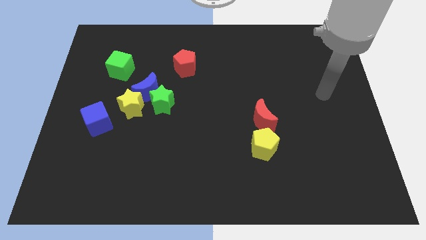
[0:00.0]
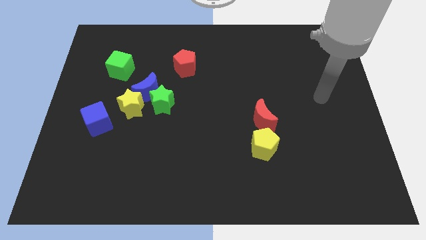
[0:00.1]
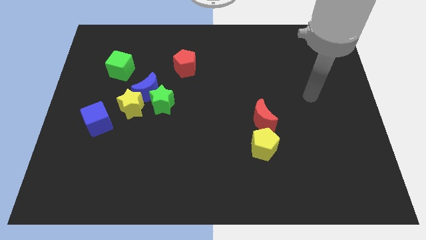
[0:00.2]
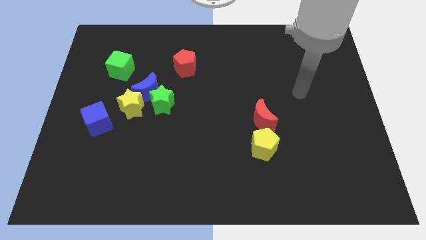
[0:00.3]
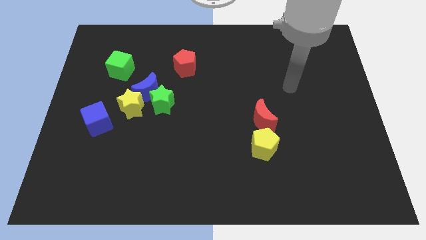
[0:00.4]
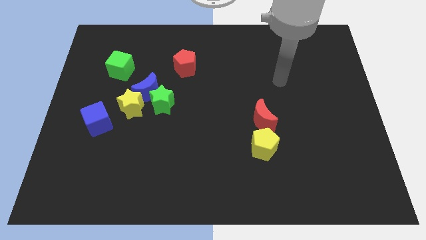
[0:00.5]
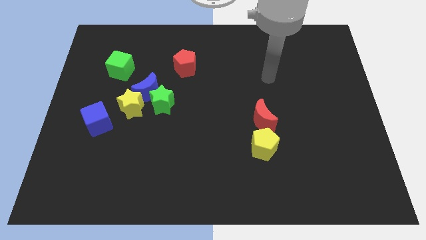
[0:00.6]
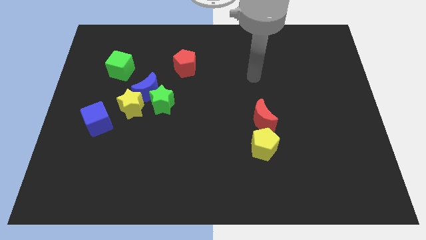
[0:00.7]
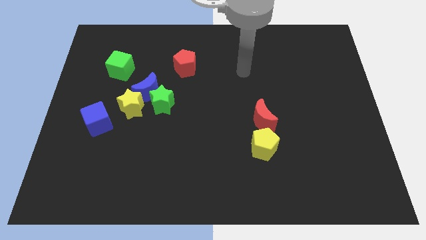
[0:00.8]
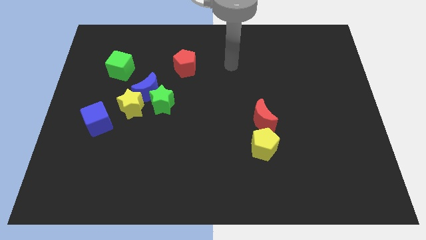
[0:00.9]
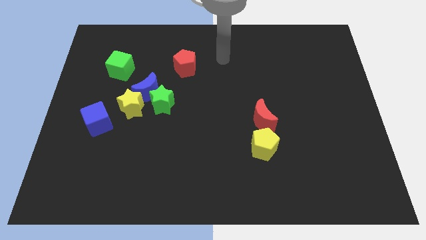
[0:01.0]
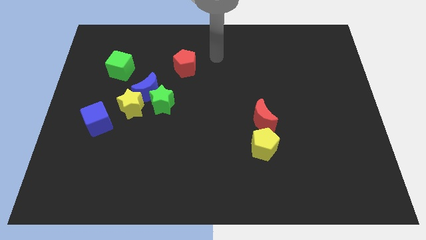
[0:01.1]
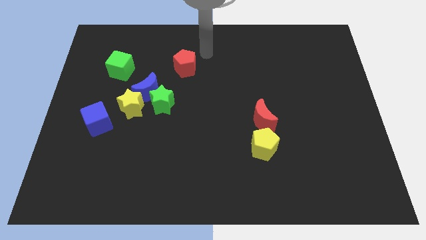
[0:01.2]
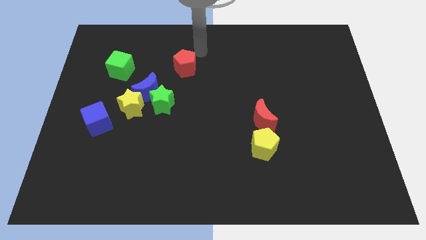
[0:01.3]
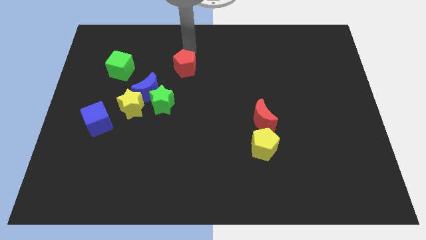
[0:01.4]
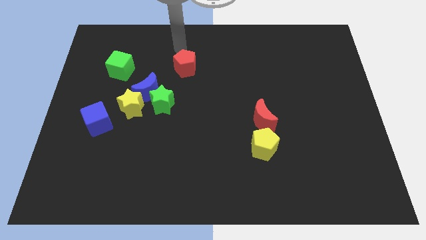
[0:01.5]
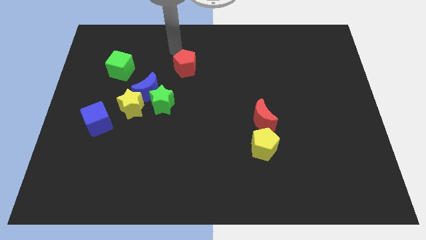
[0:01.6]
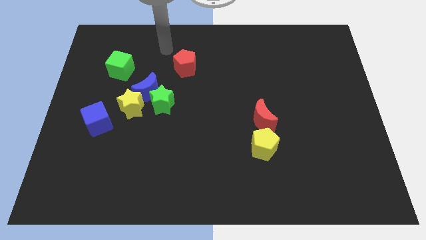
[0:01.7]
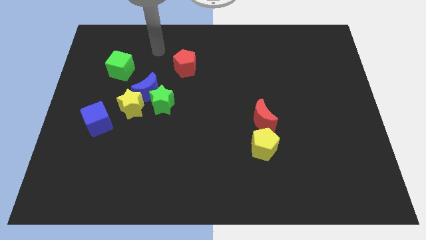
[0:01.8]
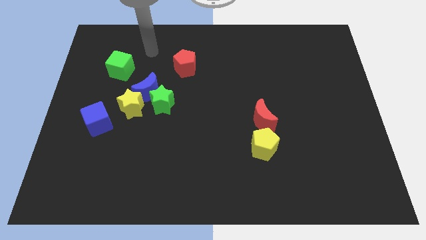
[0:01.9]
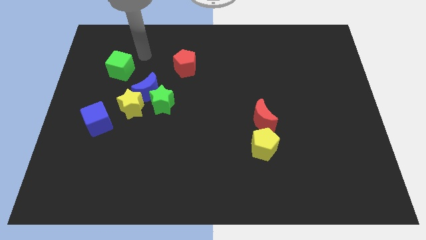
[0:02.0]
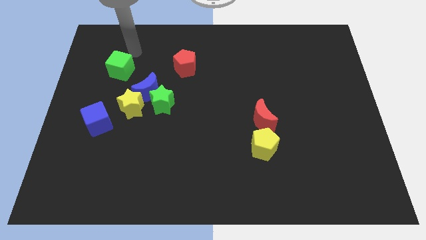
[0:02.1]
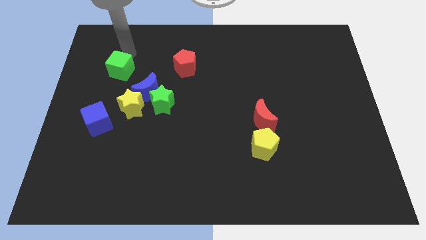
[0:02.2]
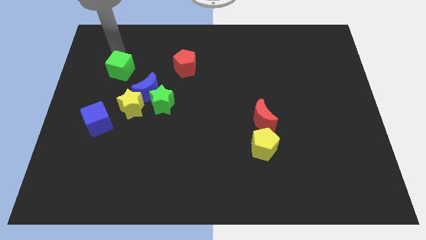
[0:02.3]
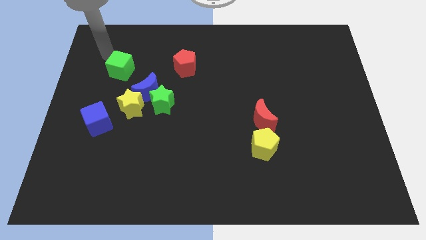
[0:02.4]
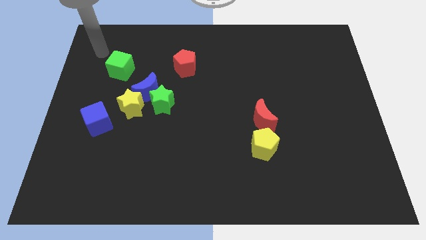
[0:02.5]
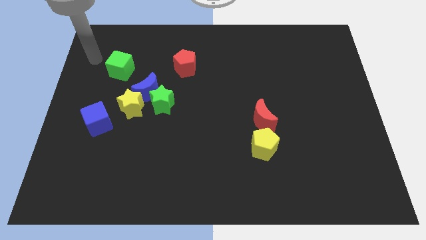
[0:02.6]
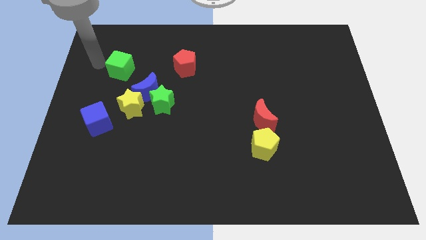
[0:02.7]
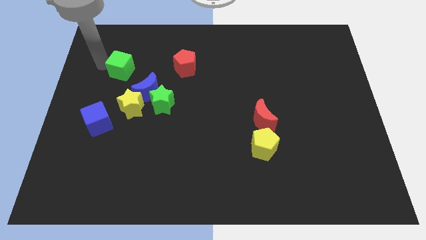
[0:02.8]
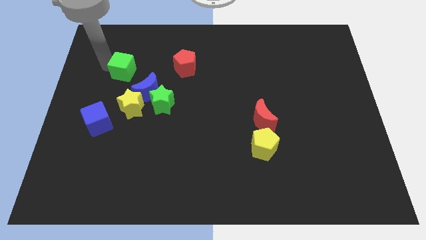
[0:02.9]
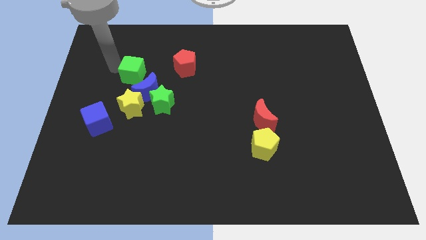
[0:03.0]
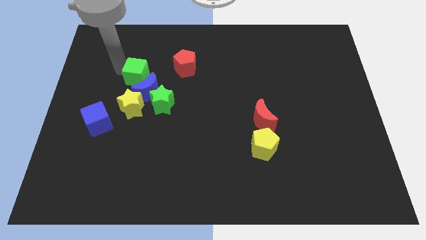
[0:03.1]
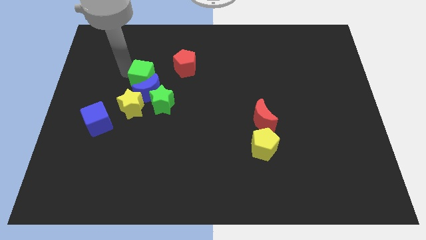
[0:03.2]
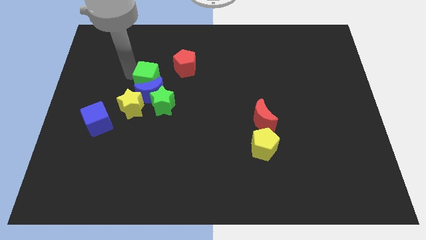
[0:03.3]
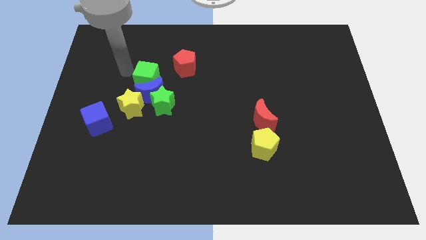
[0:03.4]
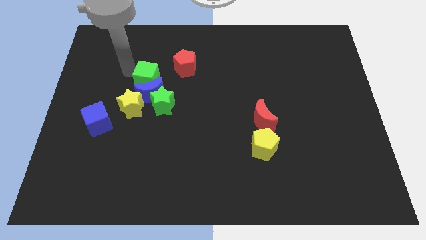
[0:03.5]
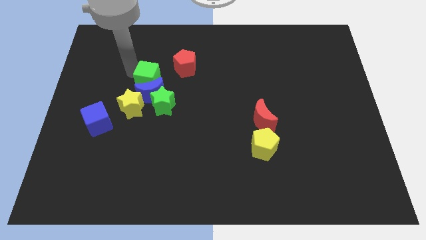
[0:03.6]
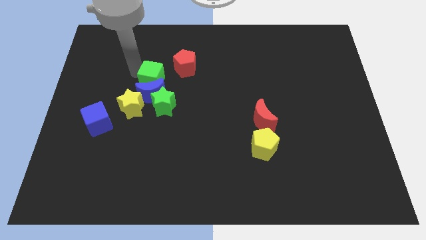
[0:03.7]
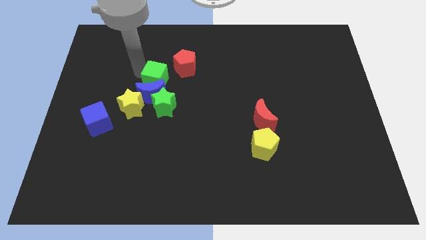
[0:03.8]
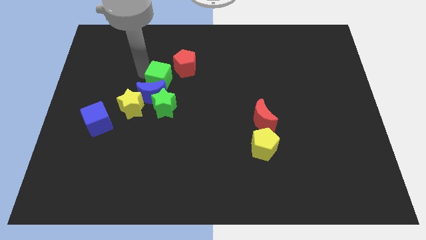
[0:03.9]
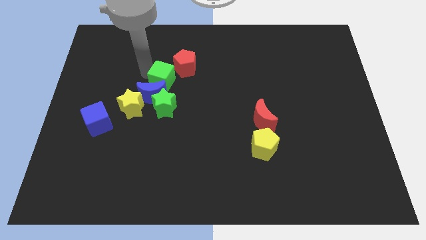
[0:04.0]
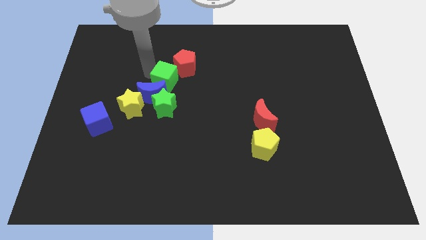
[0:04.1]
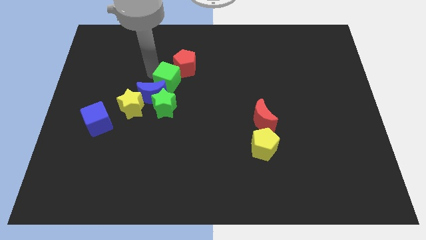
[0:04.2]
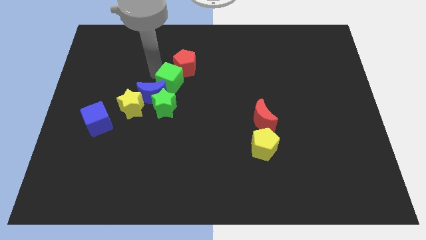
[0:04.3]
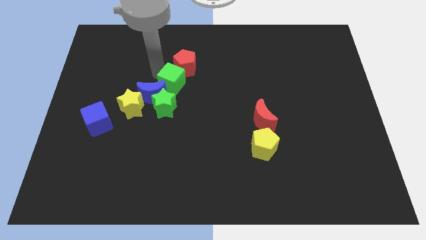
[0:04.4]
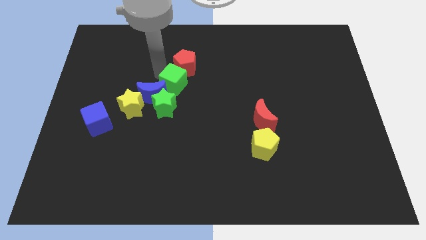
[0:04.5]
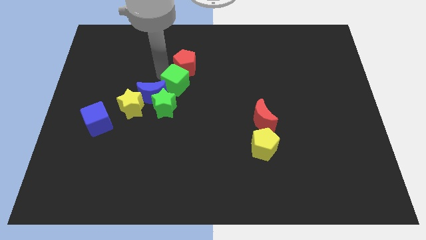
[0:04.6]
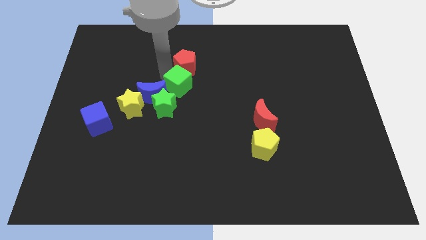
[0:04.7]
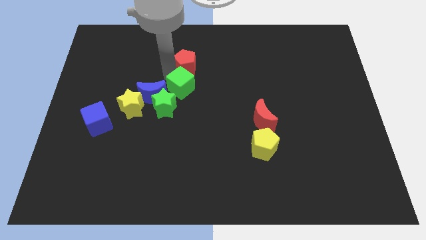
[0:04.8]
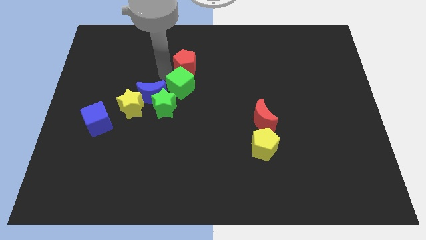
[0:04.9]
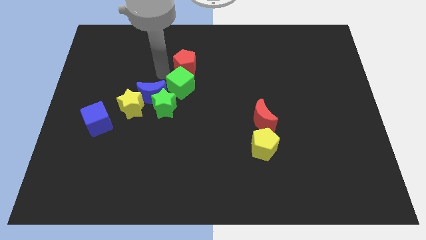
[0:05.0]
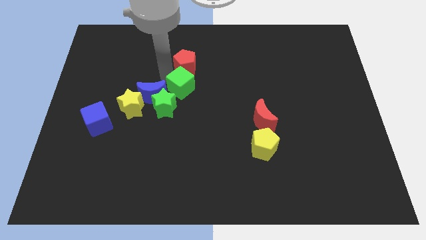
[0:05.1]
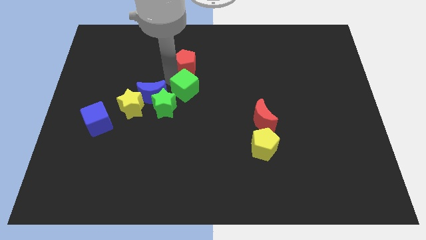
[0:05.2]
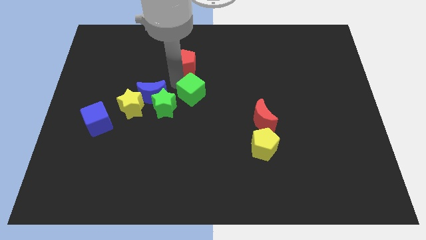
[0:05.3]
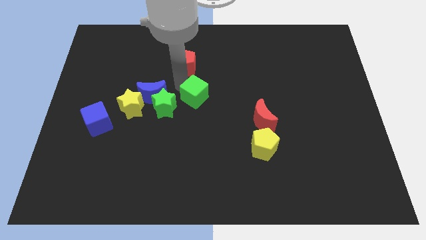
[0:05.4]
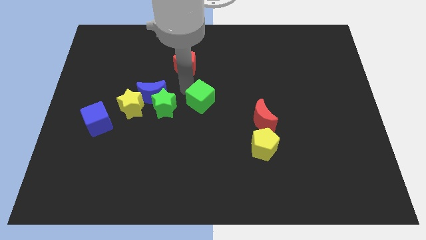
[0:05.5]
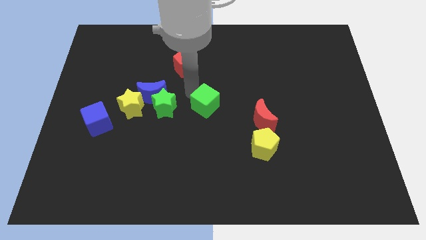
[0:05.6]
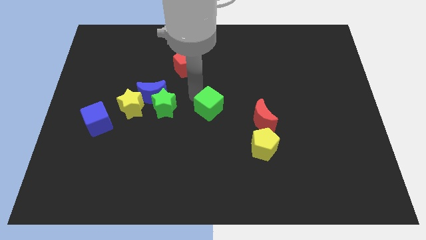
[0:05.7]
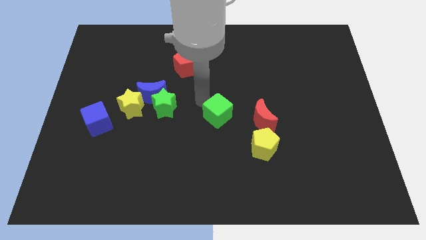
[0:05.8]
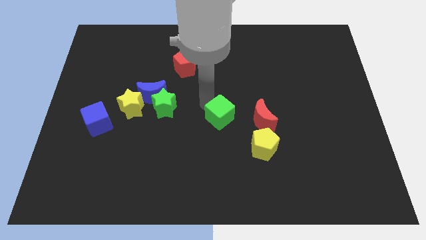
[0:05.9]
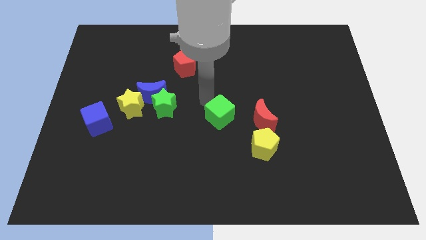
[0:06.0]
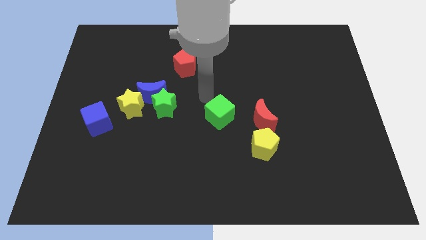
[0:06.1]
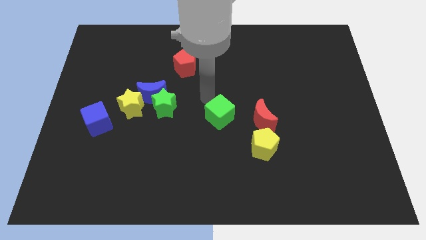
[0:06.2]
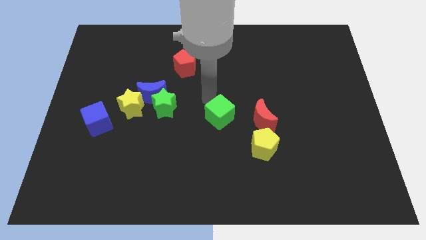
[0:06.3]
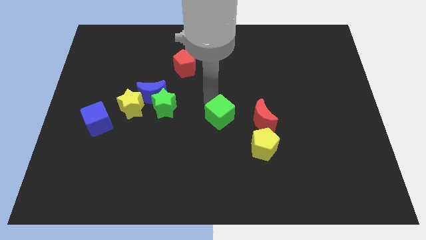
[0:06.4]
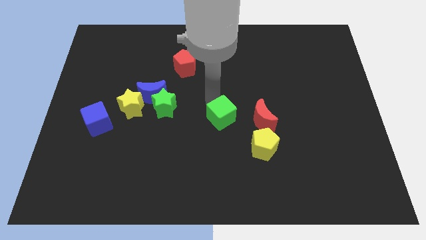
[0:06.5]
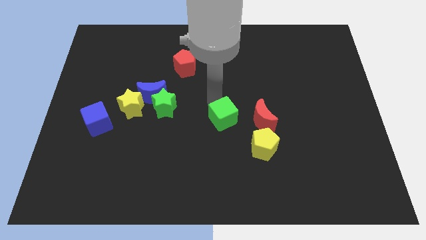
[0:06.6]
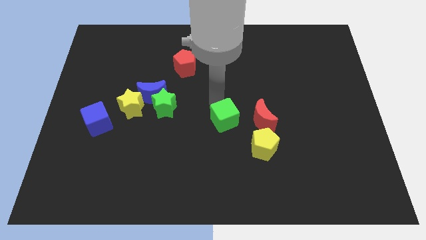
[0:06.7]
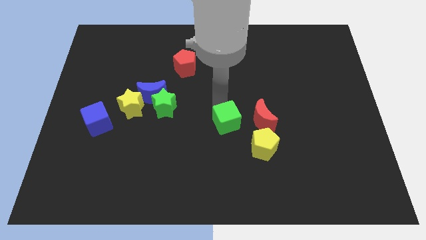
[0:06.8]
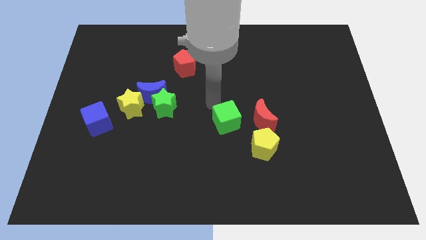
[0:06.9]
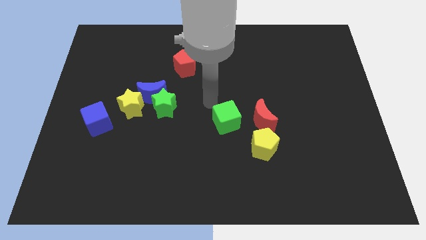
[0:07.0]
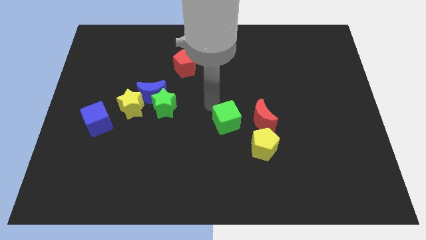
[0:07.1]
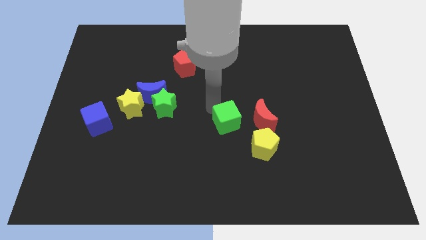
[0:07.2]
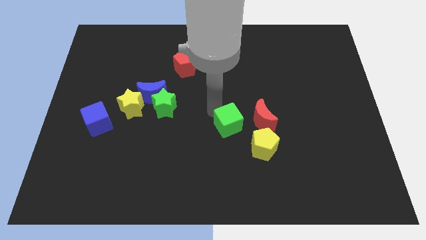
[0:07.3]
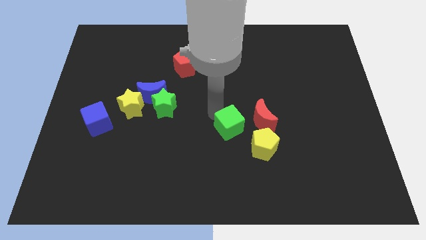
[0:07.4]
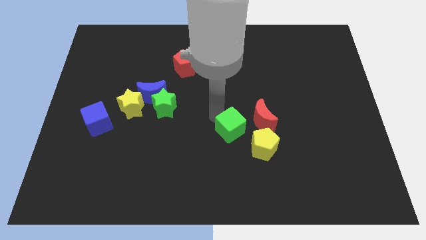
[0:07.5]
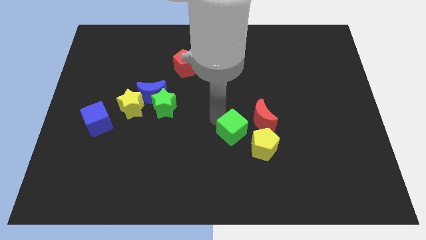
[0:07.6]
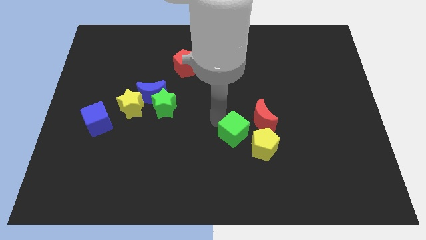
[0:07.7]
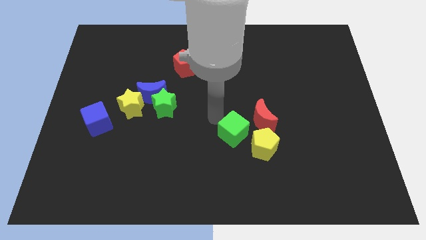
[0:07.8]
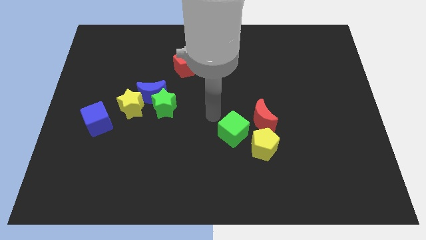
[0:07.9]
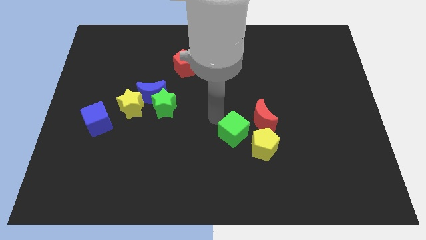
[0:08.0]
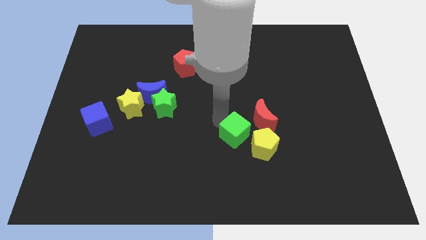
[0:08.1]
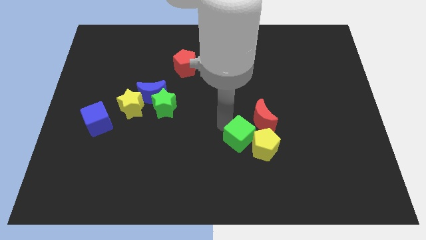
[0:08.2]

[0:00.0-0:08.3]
slide the green cube next to the yellow pentagon

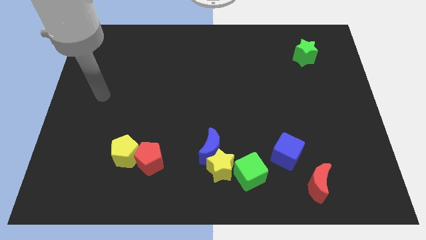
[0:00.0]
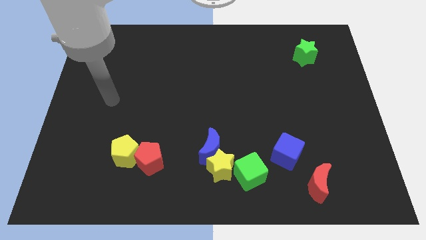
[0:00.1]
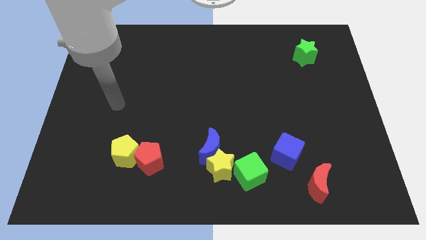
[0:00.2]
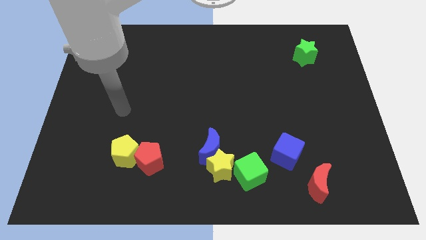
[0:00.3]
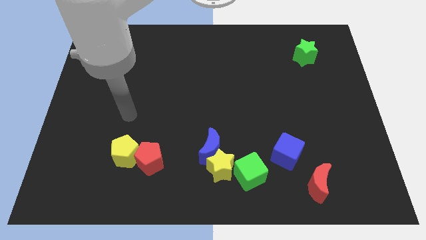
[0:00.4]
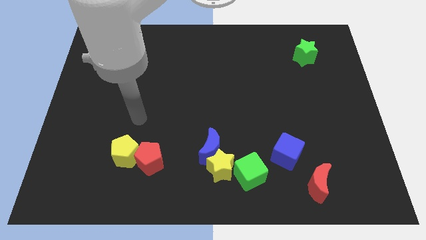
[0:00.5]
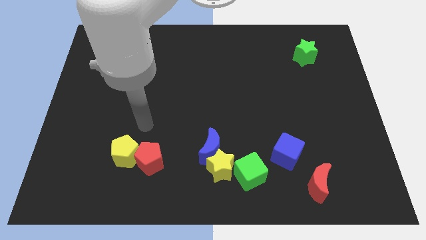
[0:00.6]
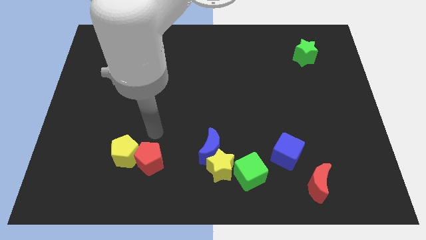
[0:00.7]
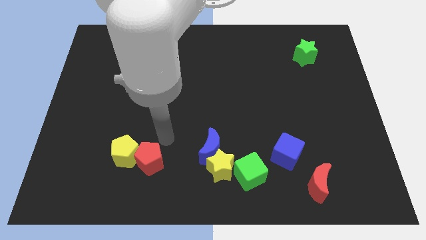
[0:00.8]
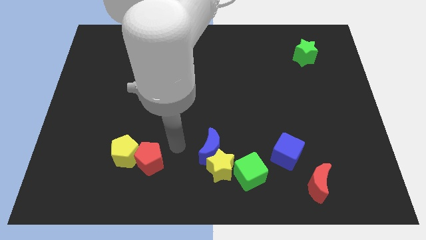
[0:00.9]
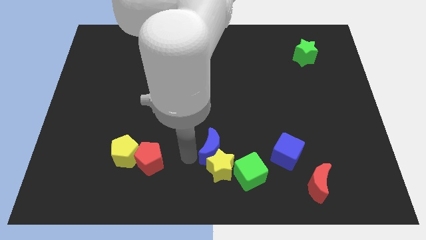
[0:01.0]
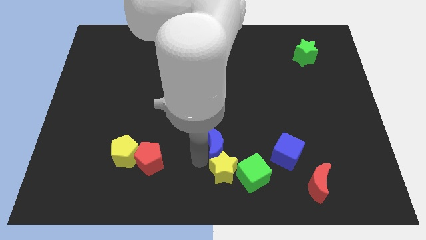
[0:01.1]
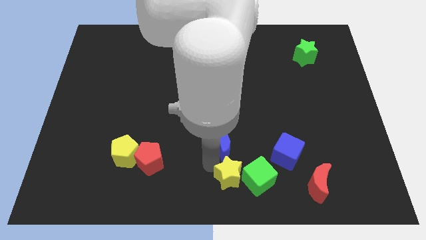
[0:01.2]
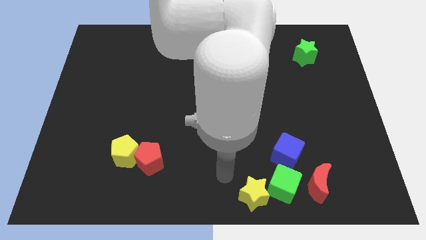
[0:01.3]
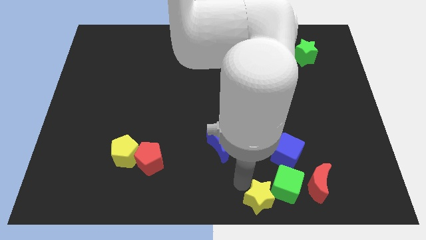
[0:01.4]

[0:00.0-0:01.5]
slide the green cube towards the red moon
